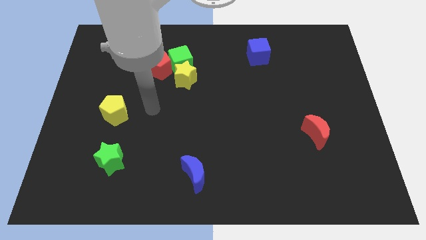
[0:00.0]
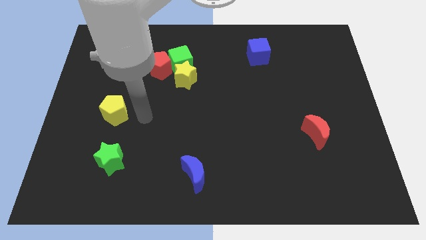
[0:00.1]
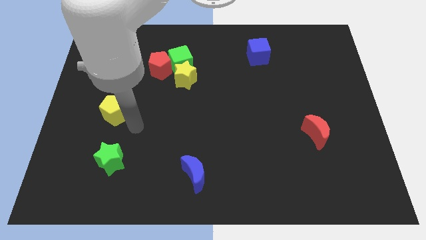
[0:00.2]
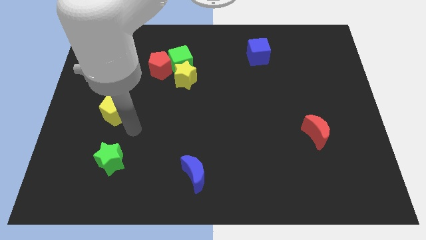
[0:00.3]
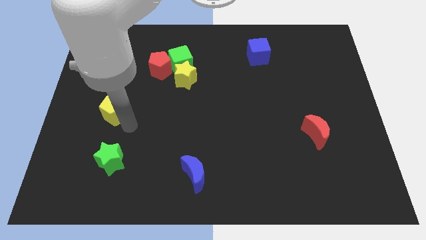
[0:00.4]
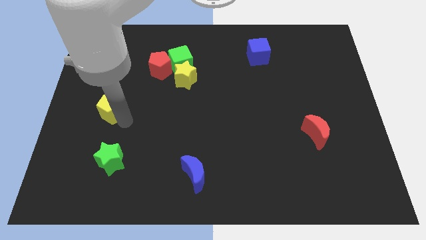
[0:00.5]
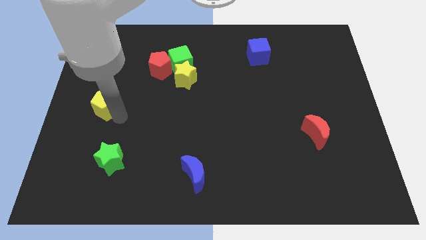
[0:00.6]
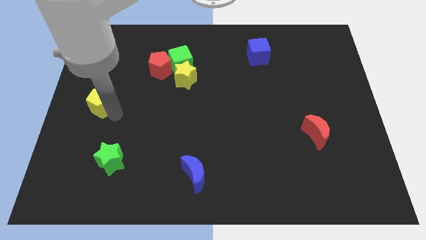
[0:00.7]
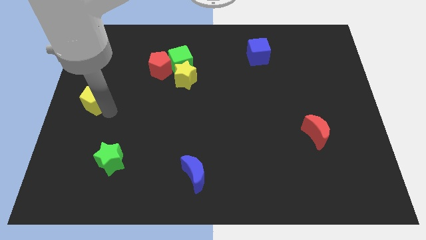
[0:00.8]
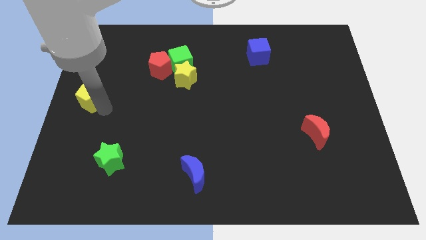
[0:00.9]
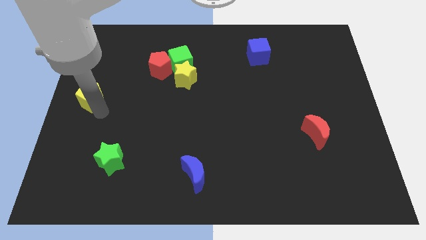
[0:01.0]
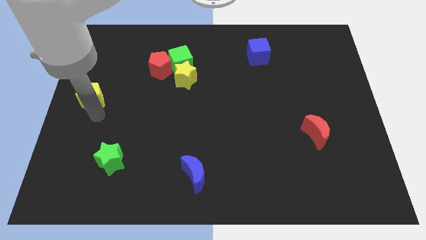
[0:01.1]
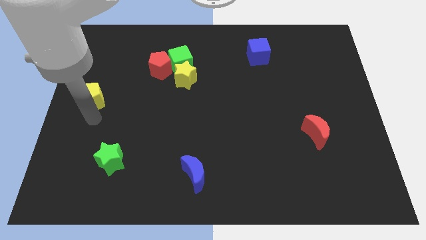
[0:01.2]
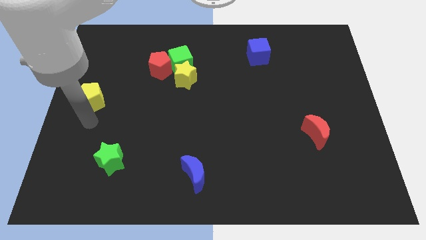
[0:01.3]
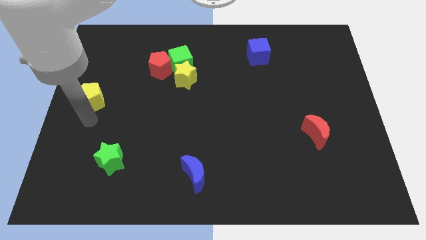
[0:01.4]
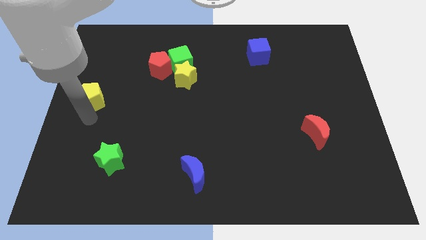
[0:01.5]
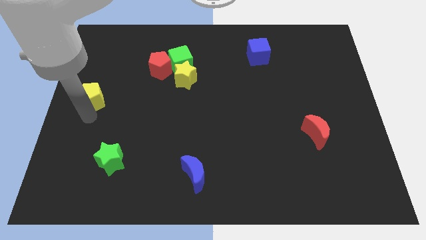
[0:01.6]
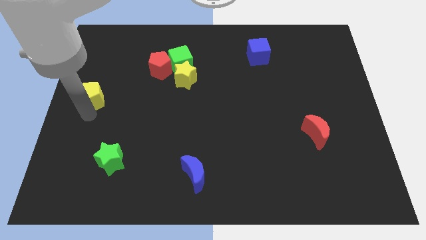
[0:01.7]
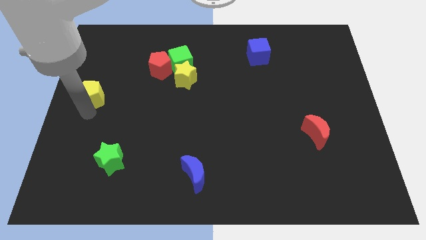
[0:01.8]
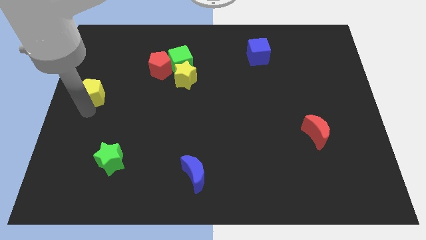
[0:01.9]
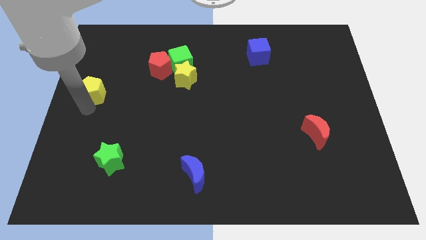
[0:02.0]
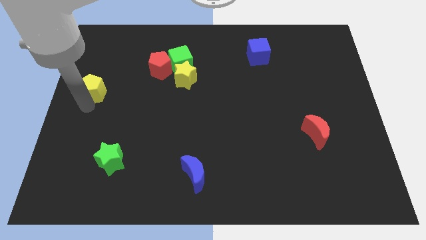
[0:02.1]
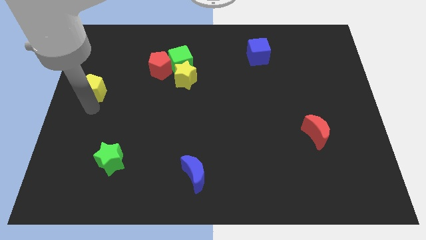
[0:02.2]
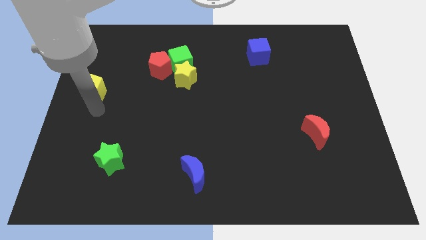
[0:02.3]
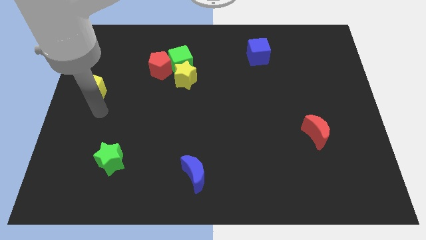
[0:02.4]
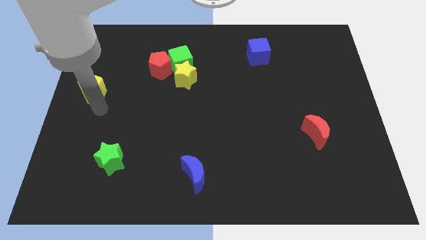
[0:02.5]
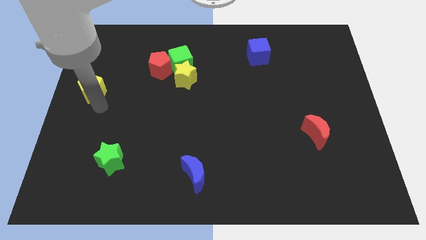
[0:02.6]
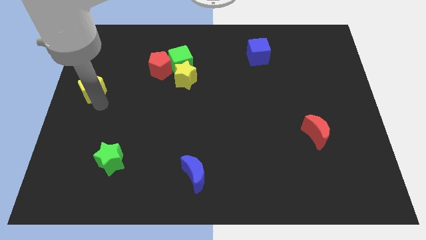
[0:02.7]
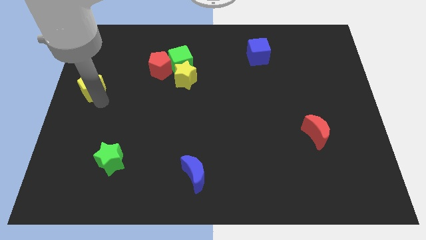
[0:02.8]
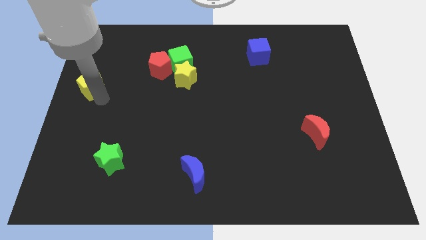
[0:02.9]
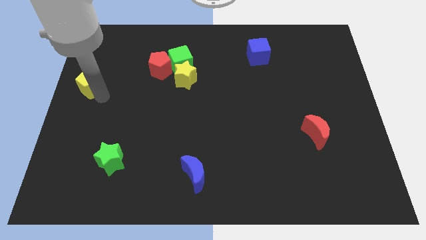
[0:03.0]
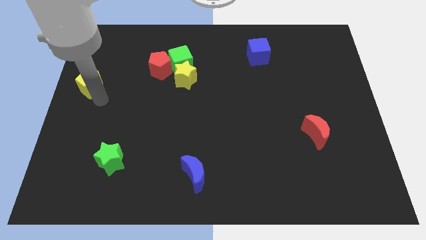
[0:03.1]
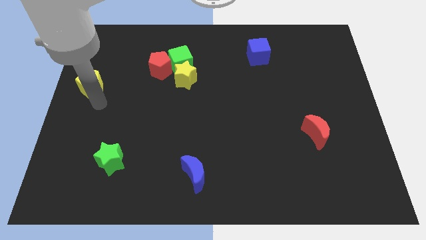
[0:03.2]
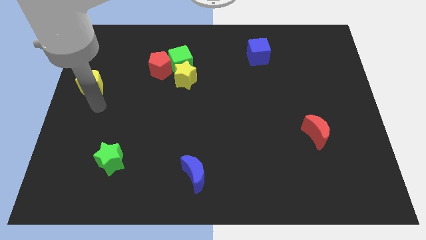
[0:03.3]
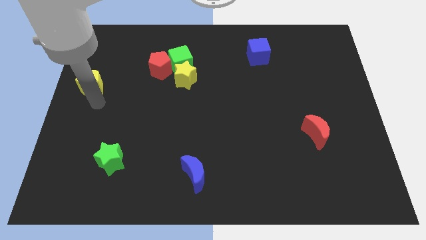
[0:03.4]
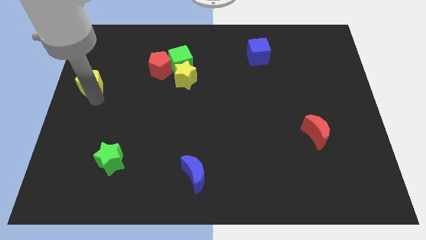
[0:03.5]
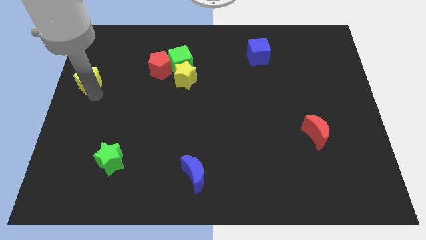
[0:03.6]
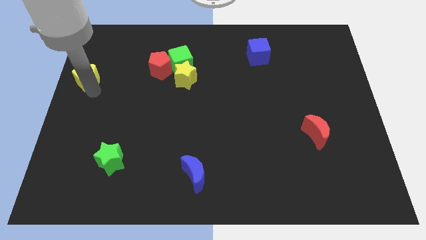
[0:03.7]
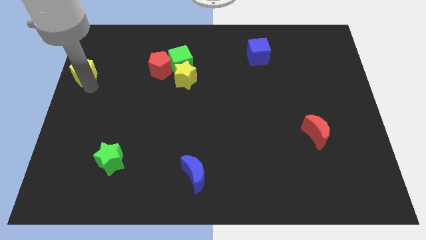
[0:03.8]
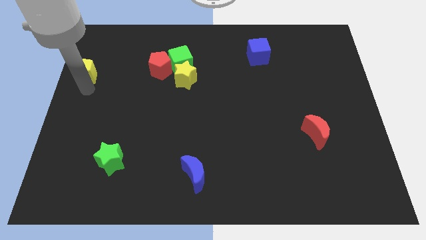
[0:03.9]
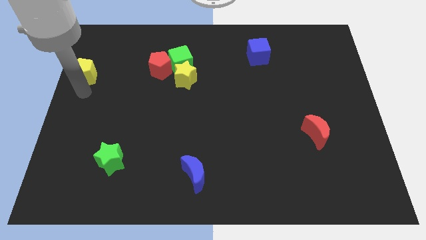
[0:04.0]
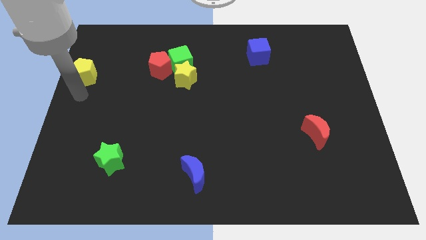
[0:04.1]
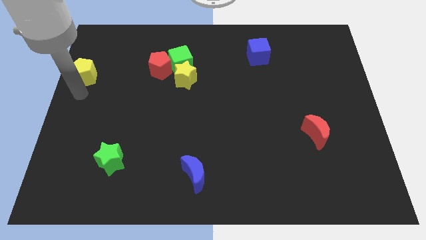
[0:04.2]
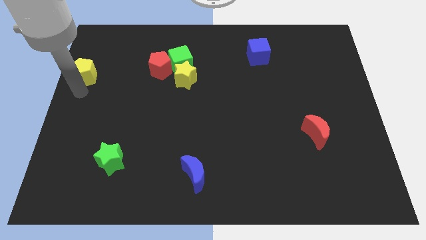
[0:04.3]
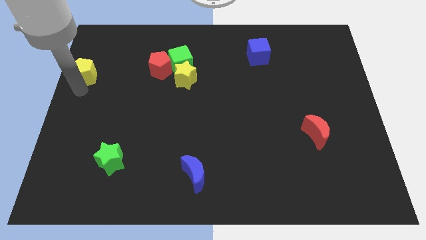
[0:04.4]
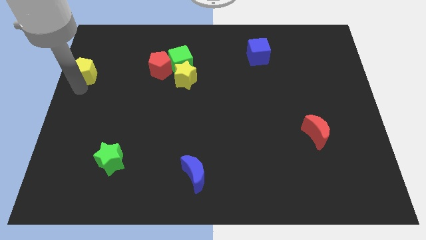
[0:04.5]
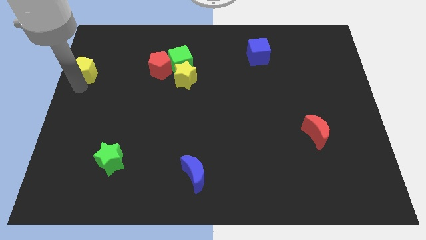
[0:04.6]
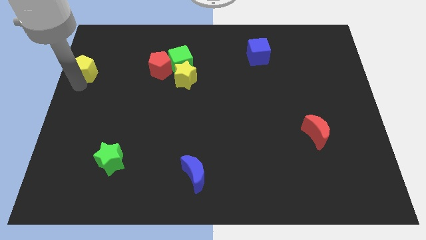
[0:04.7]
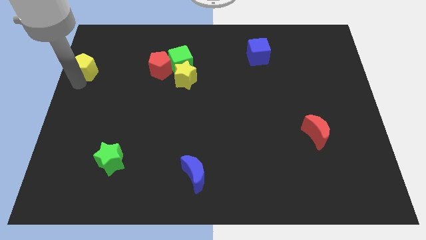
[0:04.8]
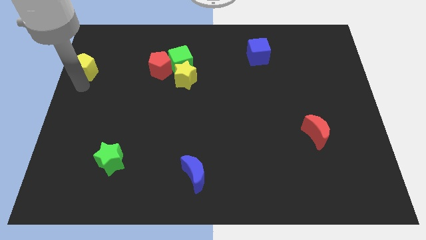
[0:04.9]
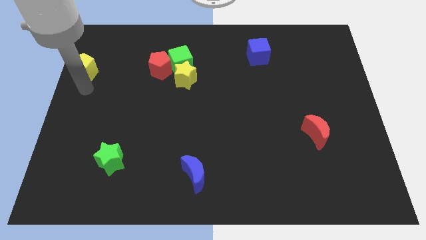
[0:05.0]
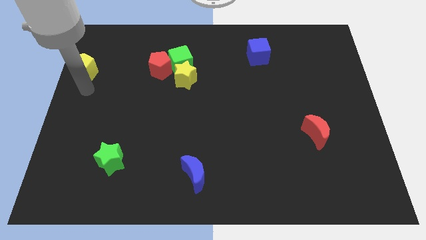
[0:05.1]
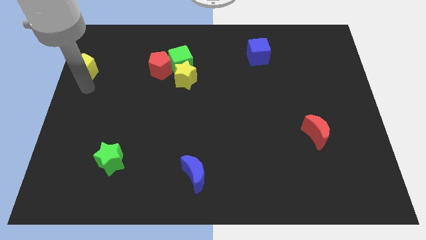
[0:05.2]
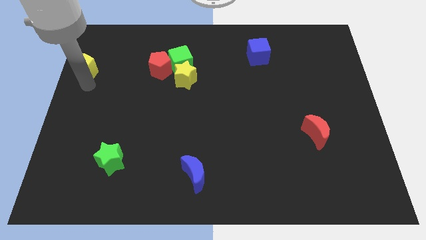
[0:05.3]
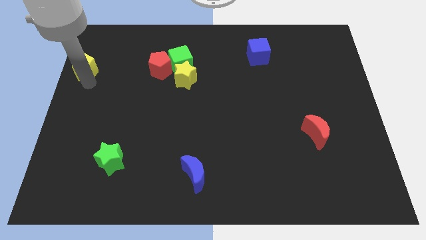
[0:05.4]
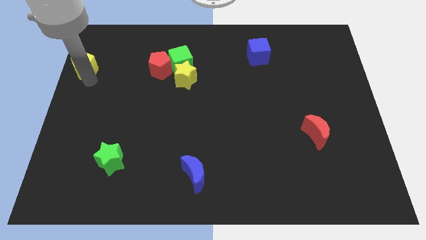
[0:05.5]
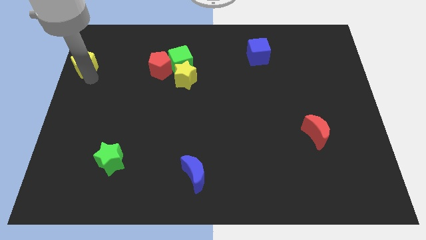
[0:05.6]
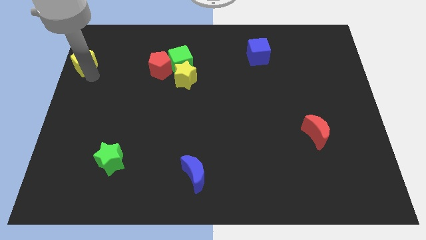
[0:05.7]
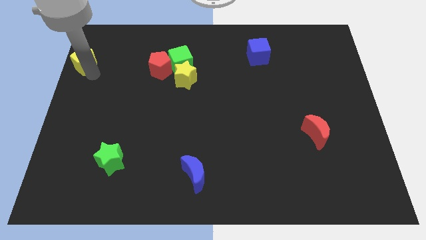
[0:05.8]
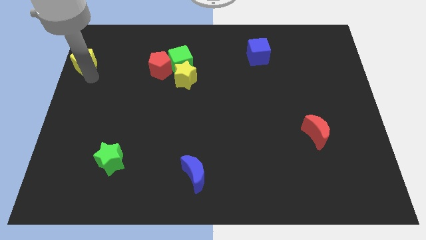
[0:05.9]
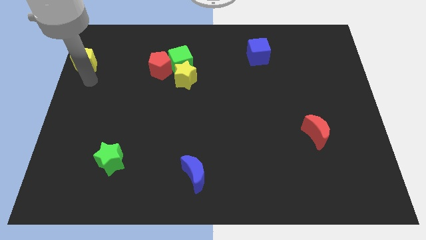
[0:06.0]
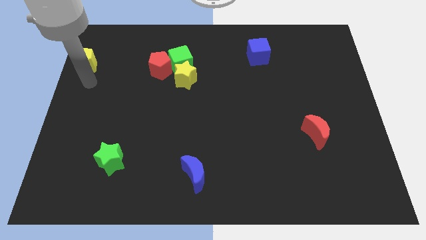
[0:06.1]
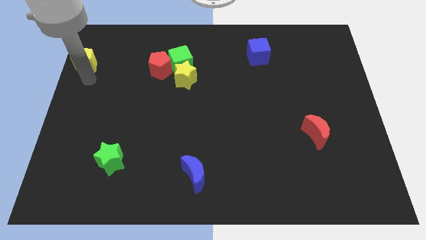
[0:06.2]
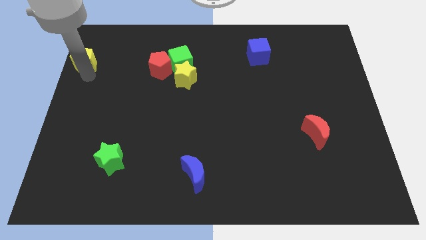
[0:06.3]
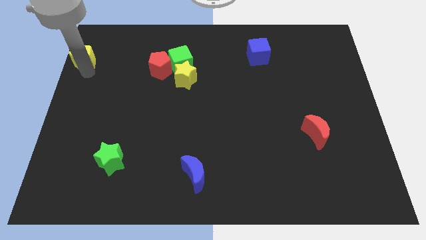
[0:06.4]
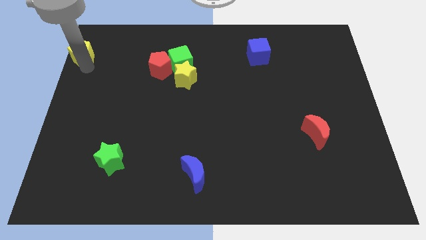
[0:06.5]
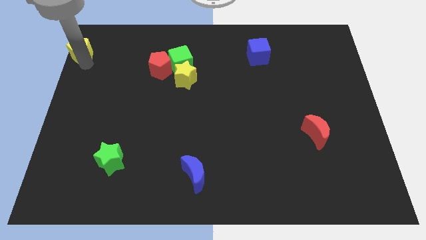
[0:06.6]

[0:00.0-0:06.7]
put the yellow pentagon to the top left
